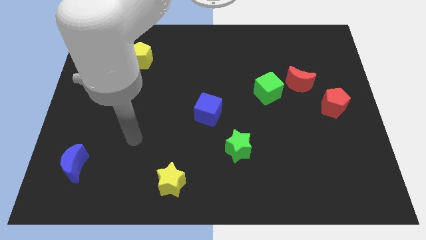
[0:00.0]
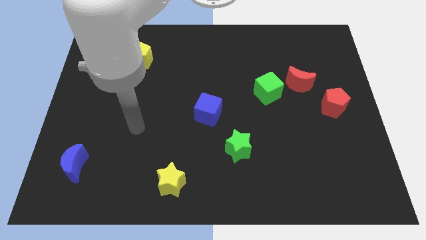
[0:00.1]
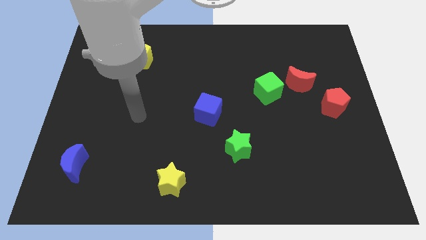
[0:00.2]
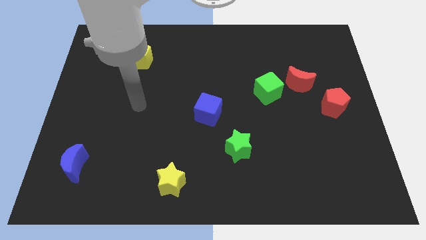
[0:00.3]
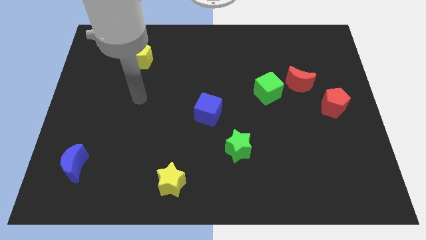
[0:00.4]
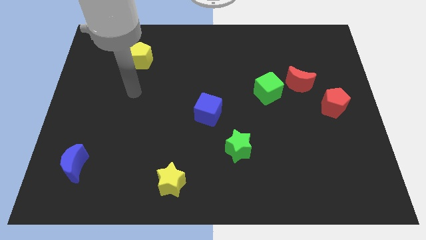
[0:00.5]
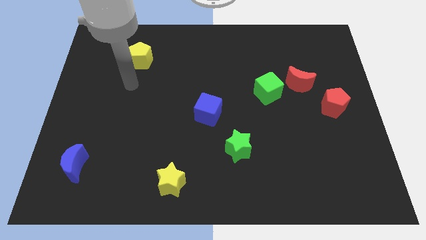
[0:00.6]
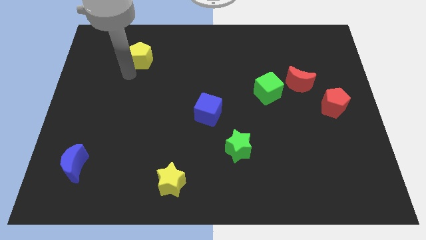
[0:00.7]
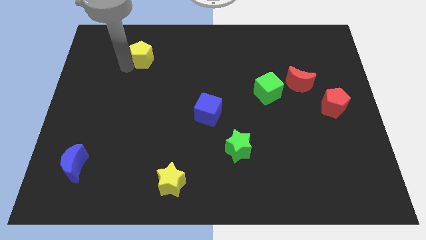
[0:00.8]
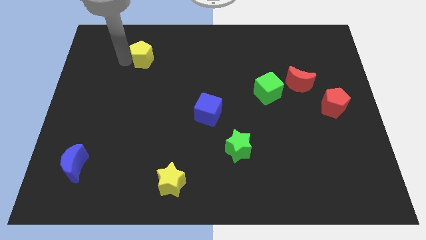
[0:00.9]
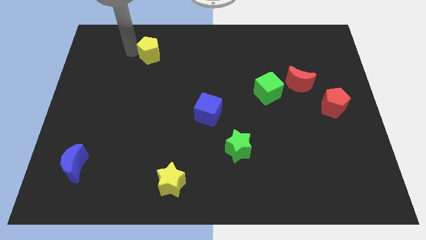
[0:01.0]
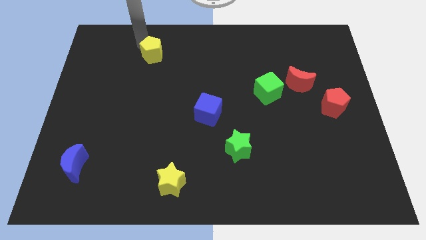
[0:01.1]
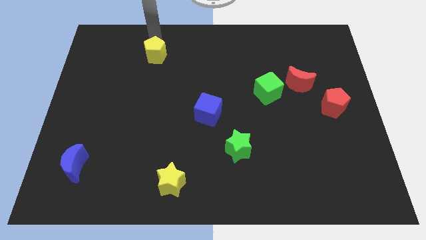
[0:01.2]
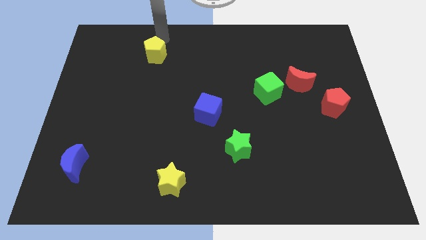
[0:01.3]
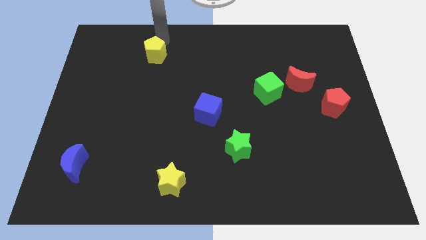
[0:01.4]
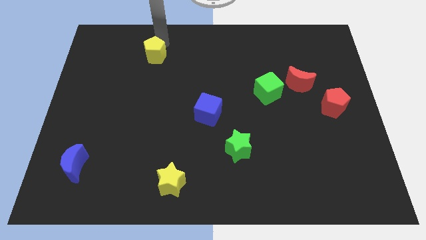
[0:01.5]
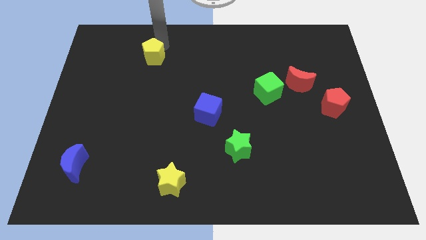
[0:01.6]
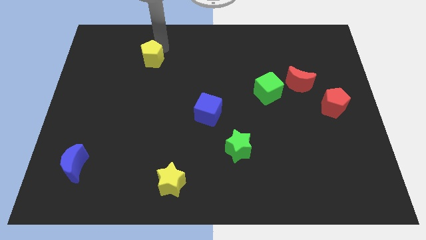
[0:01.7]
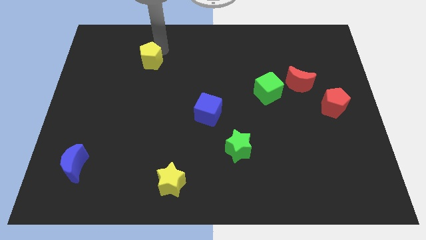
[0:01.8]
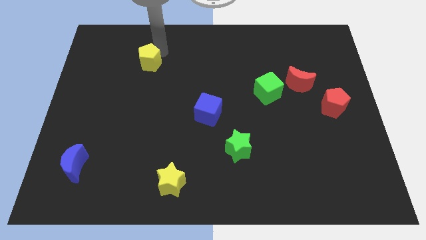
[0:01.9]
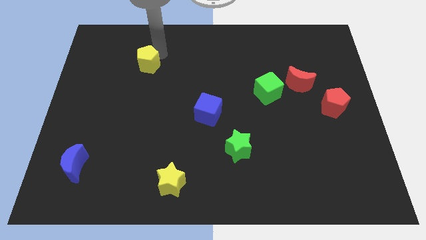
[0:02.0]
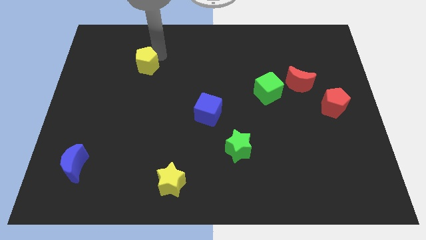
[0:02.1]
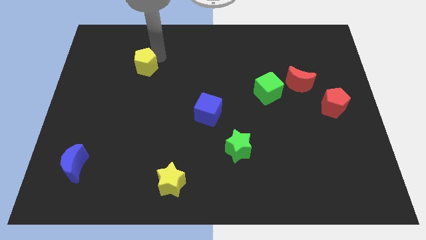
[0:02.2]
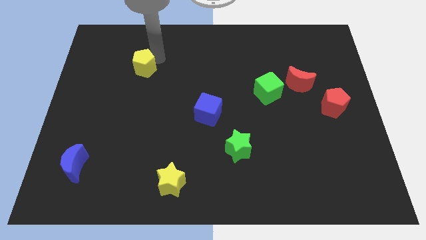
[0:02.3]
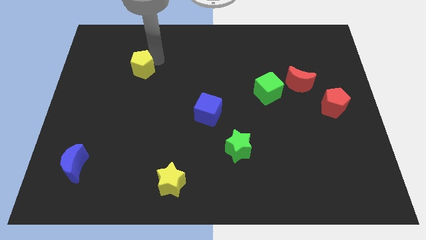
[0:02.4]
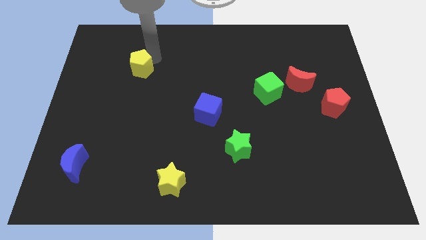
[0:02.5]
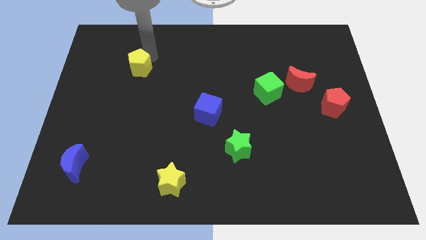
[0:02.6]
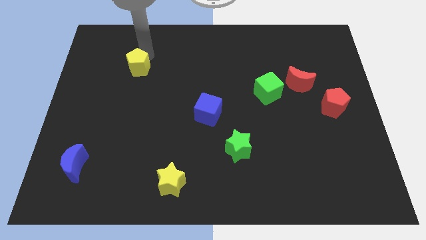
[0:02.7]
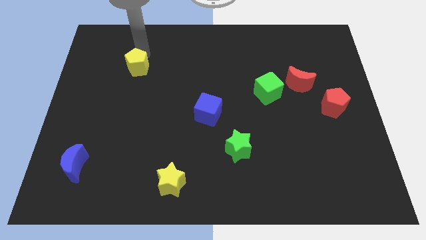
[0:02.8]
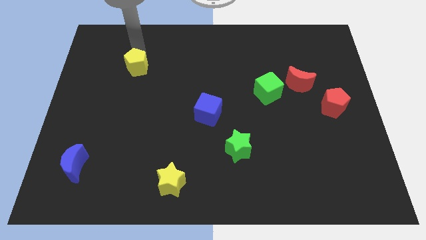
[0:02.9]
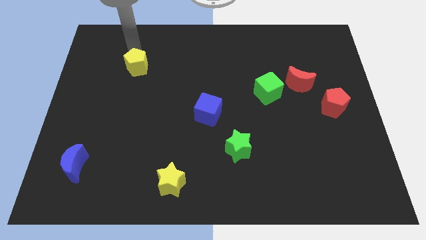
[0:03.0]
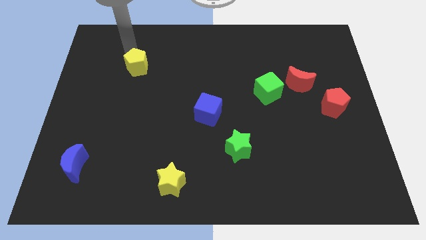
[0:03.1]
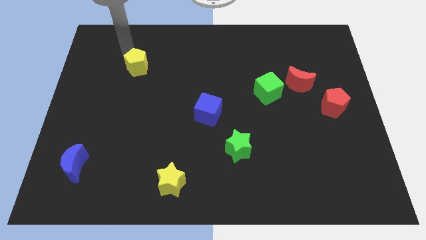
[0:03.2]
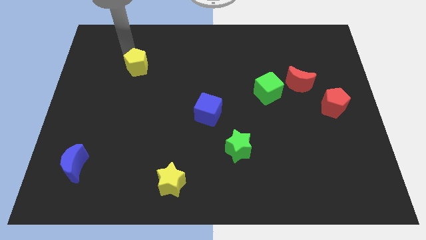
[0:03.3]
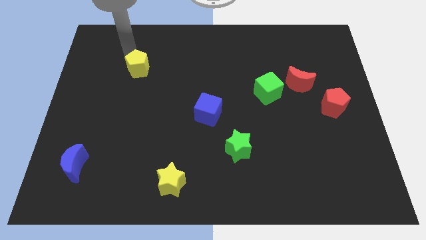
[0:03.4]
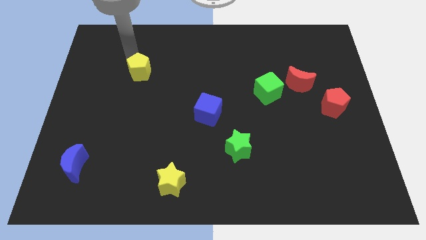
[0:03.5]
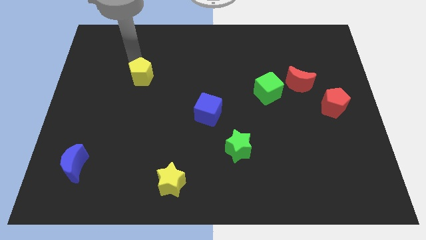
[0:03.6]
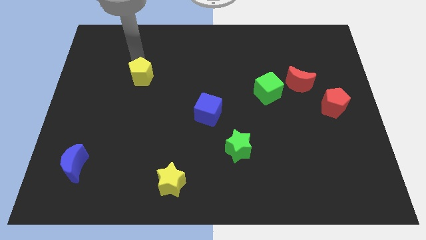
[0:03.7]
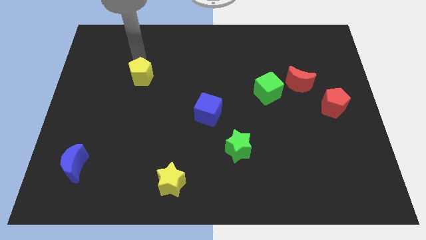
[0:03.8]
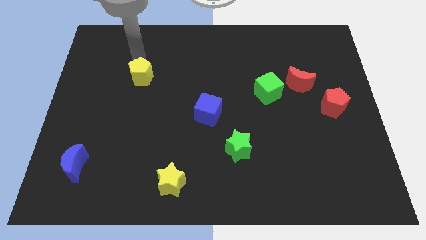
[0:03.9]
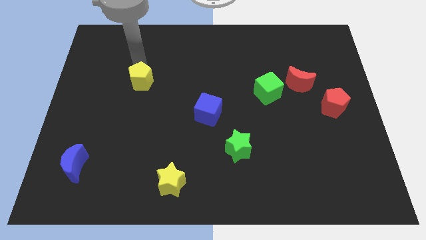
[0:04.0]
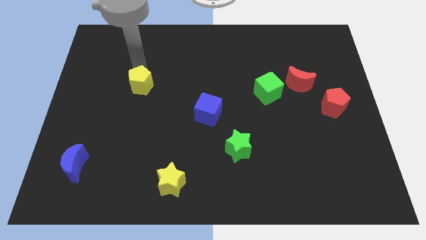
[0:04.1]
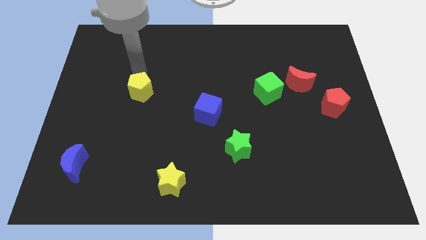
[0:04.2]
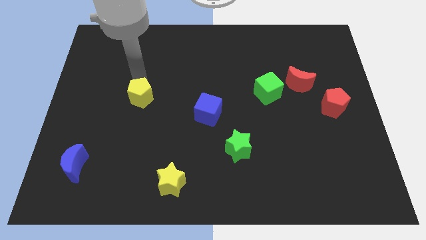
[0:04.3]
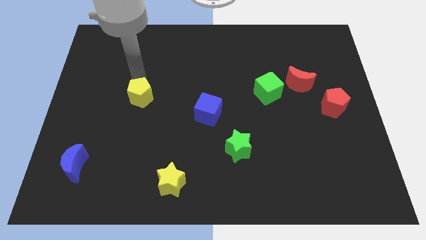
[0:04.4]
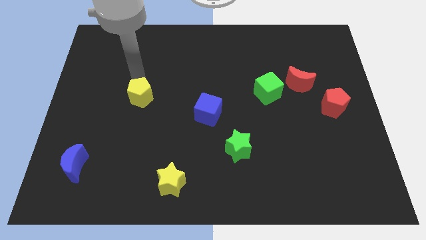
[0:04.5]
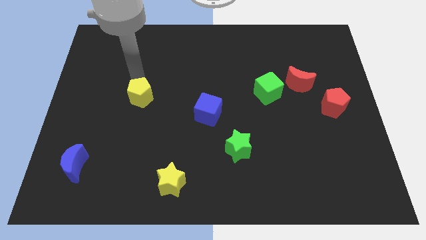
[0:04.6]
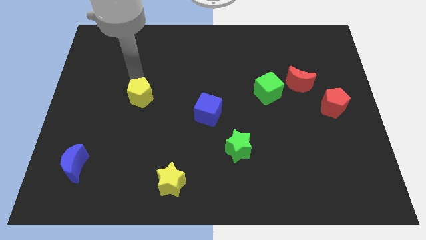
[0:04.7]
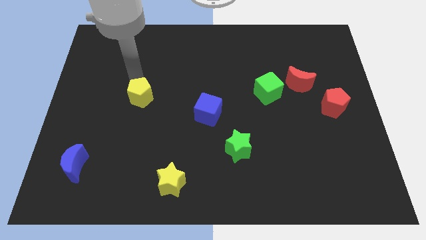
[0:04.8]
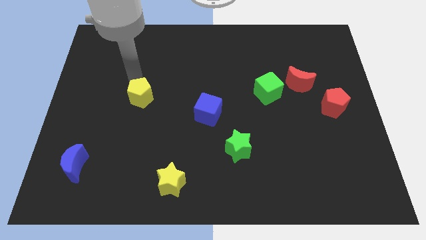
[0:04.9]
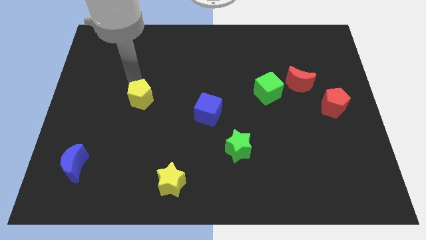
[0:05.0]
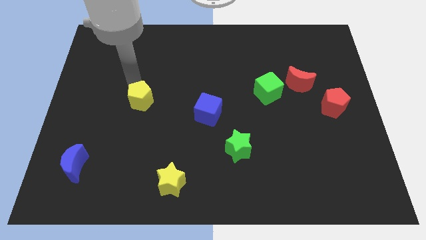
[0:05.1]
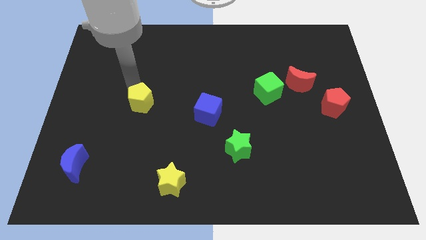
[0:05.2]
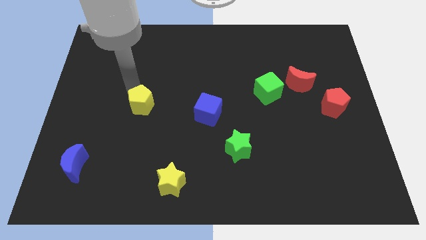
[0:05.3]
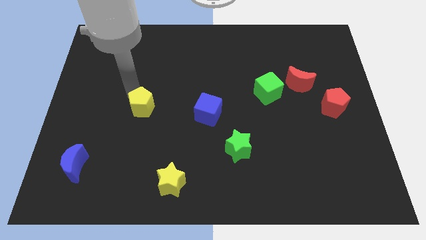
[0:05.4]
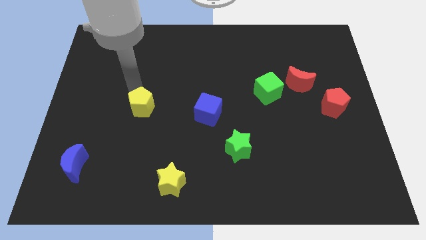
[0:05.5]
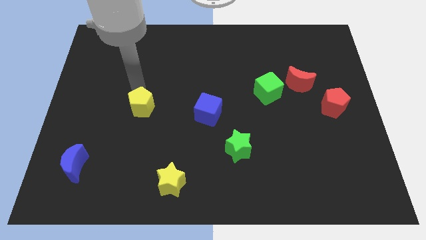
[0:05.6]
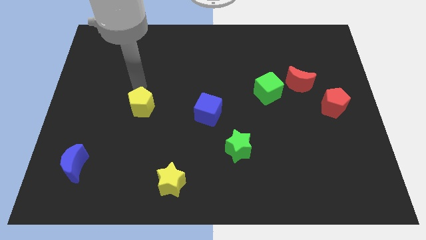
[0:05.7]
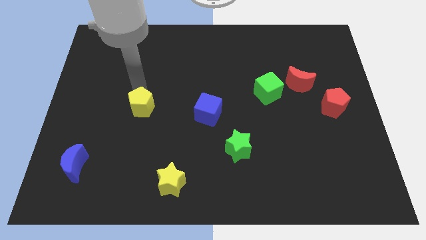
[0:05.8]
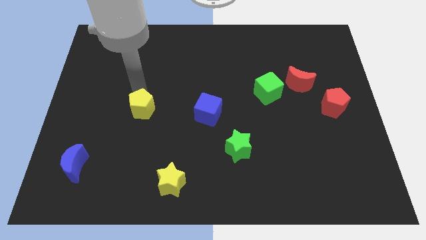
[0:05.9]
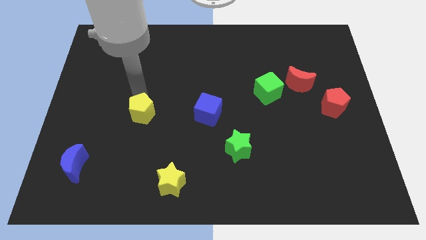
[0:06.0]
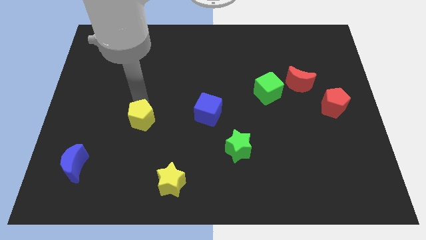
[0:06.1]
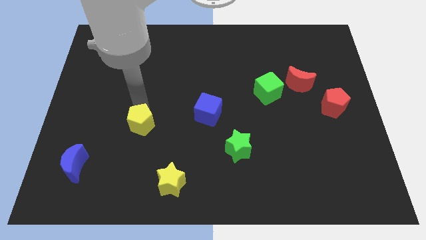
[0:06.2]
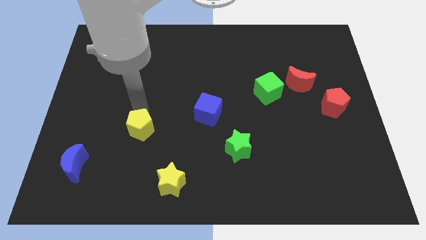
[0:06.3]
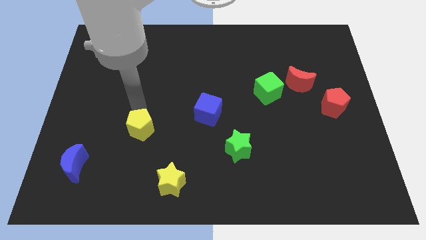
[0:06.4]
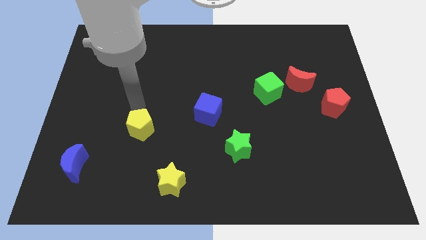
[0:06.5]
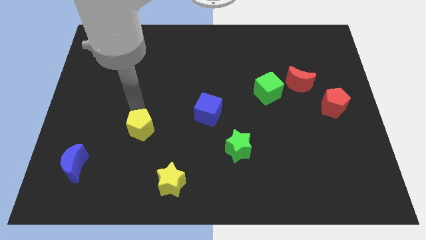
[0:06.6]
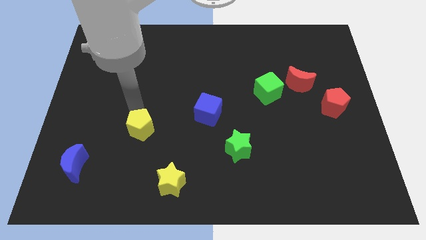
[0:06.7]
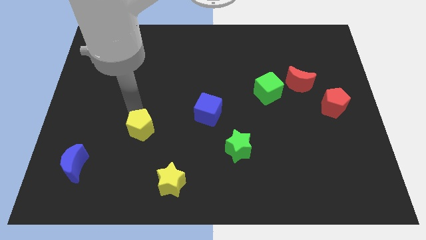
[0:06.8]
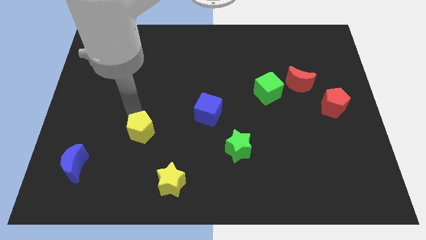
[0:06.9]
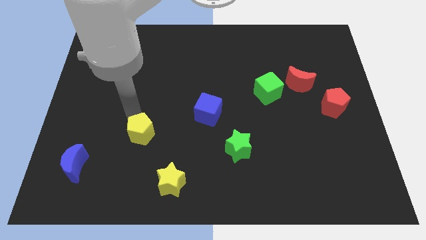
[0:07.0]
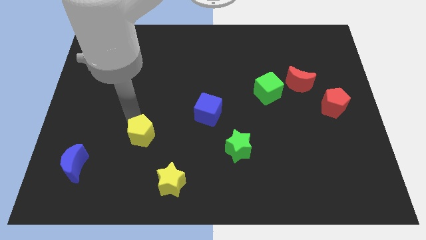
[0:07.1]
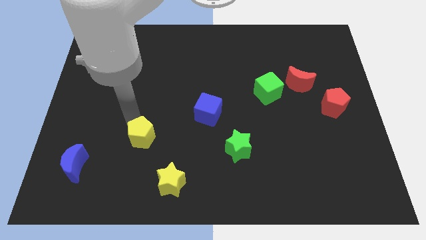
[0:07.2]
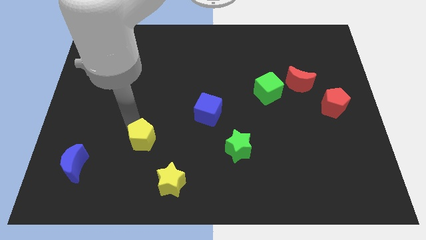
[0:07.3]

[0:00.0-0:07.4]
slide the yellow pentagon to the top left side of the yellow star

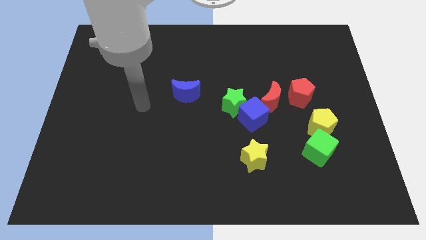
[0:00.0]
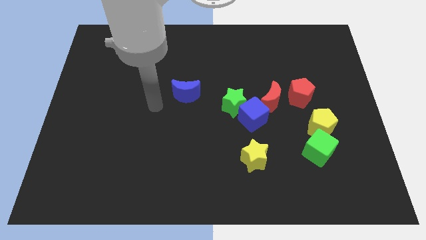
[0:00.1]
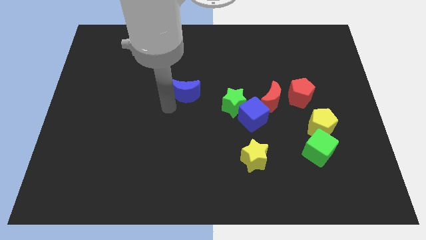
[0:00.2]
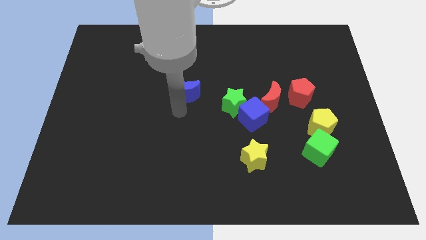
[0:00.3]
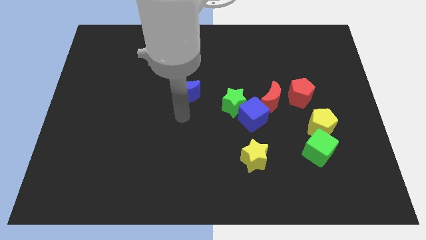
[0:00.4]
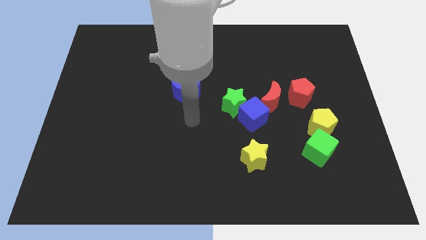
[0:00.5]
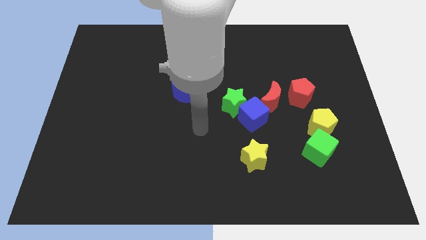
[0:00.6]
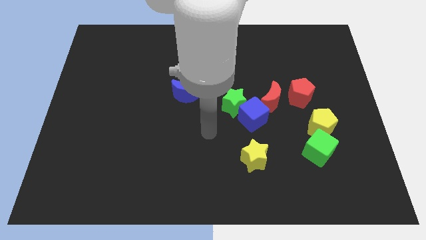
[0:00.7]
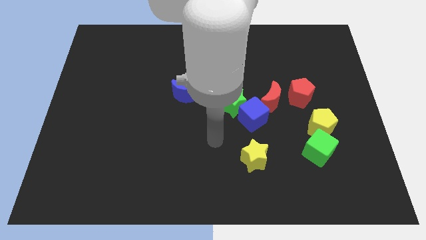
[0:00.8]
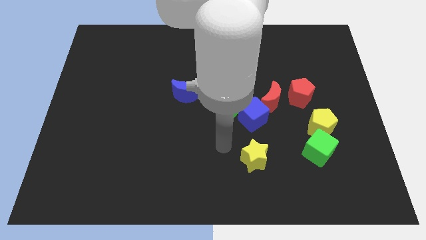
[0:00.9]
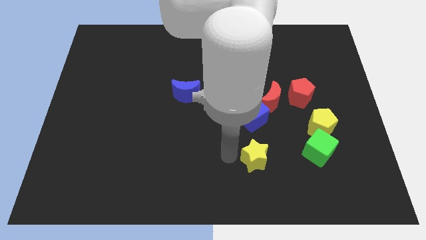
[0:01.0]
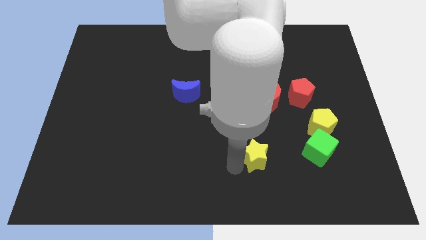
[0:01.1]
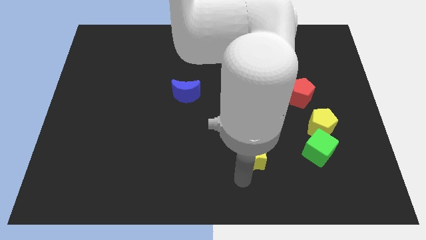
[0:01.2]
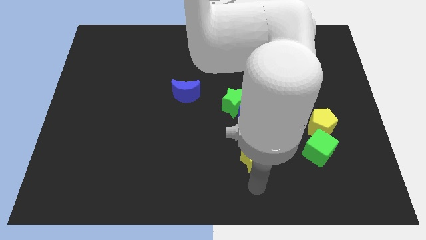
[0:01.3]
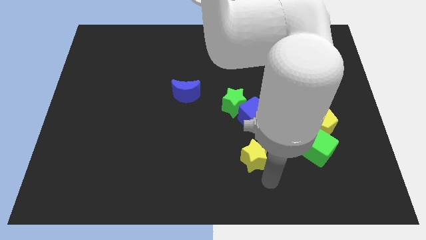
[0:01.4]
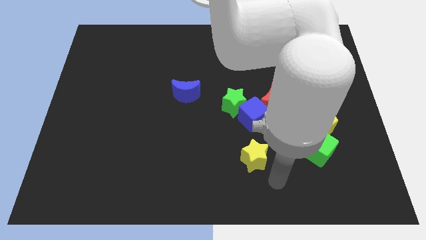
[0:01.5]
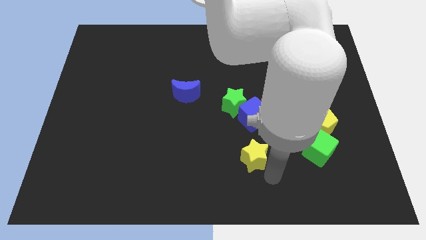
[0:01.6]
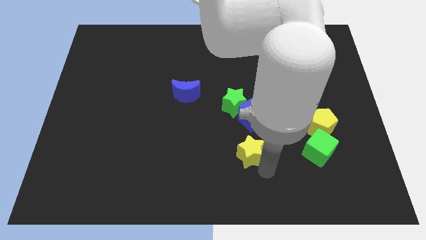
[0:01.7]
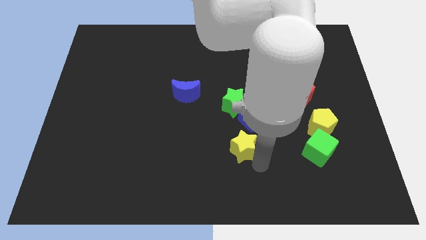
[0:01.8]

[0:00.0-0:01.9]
move the yellow star to the bottom left of the blue cube
